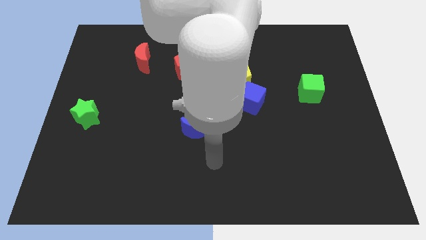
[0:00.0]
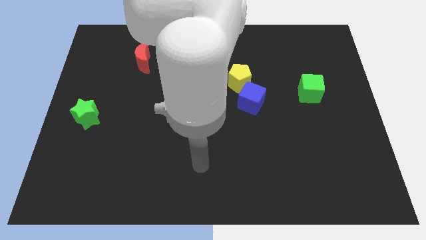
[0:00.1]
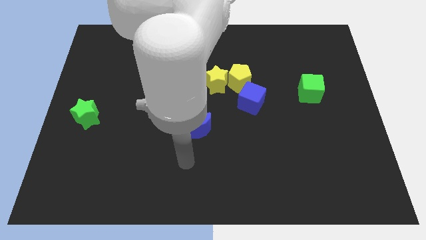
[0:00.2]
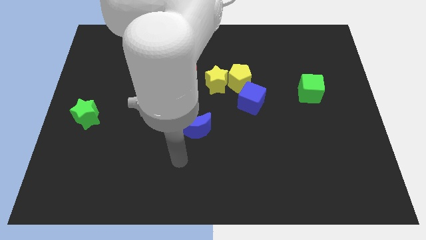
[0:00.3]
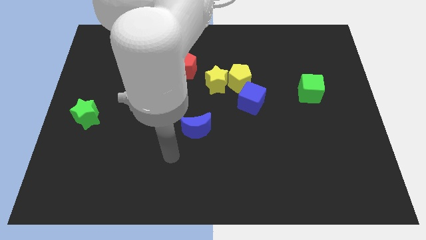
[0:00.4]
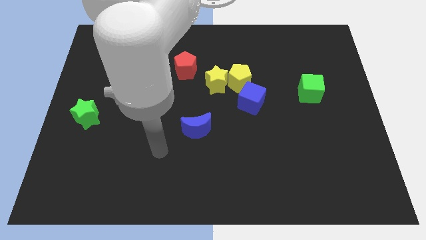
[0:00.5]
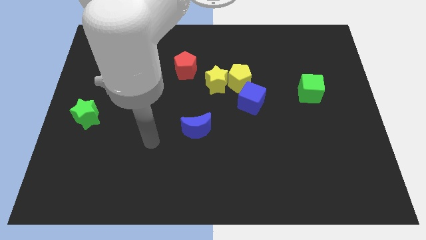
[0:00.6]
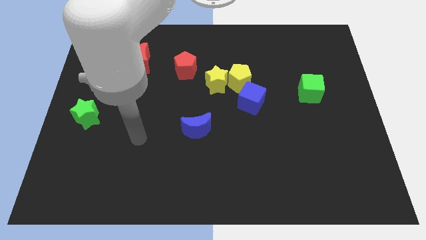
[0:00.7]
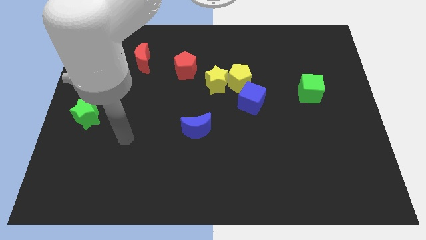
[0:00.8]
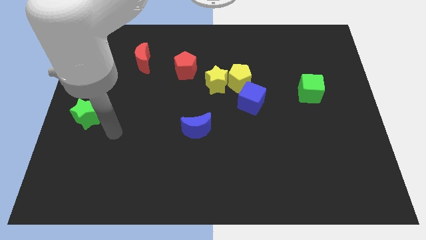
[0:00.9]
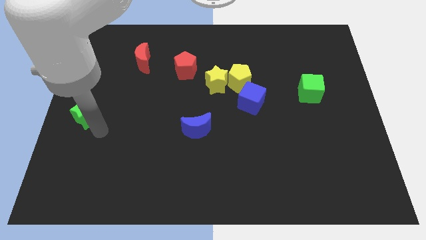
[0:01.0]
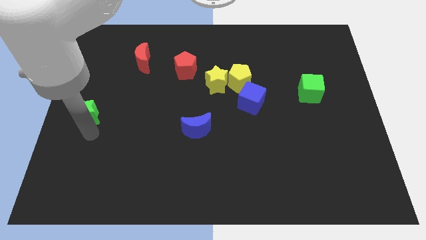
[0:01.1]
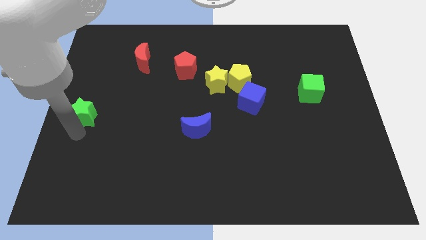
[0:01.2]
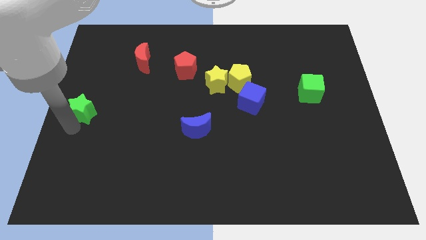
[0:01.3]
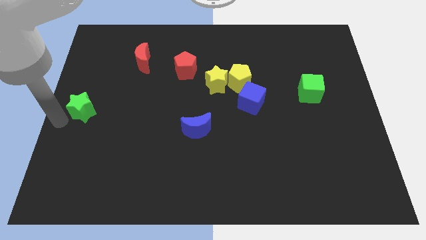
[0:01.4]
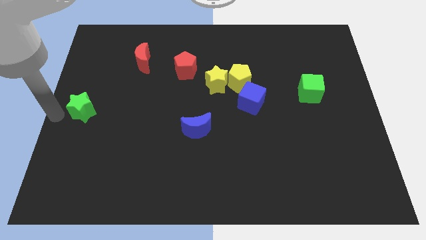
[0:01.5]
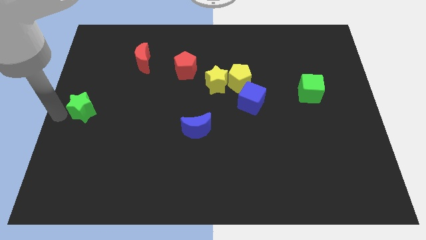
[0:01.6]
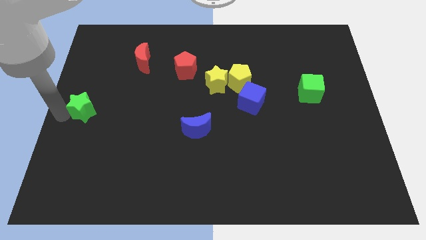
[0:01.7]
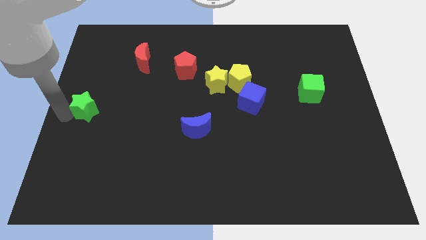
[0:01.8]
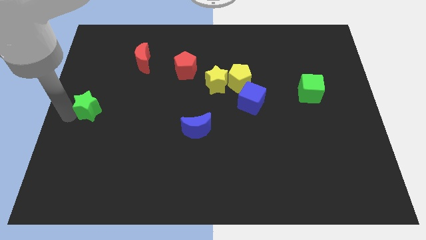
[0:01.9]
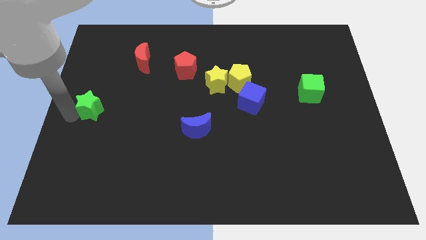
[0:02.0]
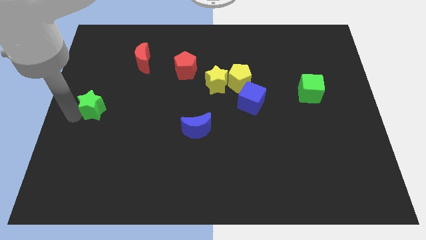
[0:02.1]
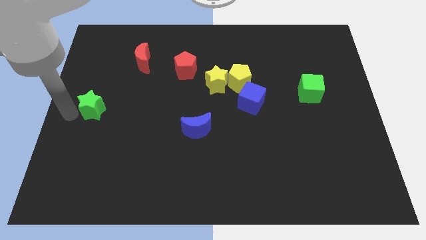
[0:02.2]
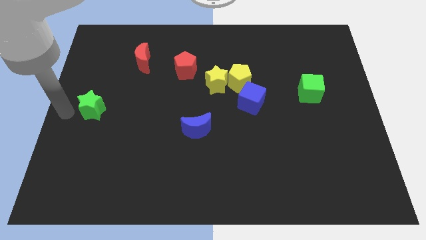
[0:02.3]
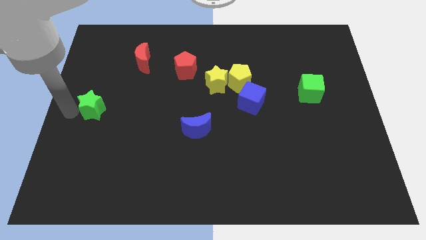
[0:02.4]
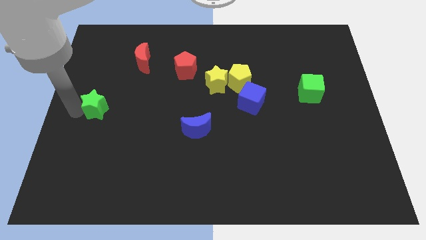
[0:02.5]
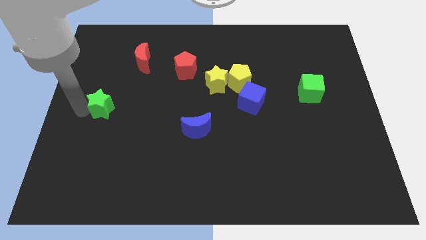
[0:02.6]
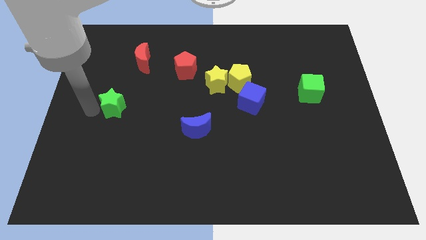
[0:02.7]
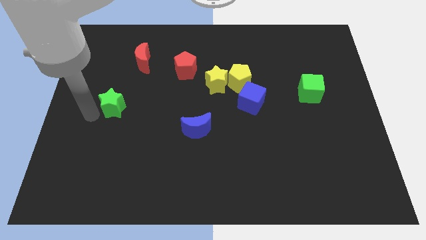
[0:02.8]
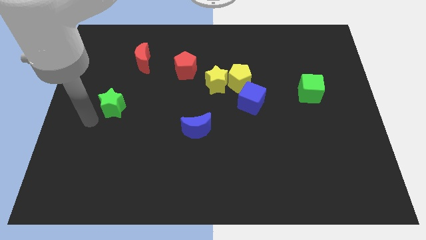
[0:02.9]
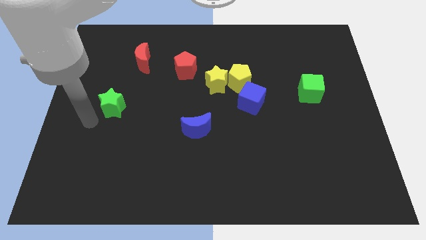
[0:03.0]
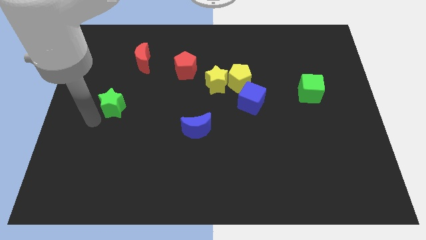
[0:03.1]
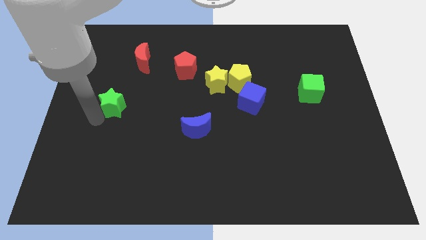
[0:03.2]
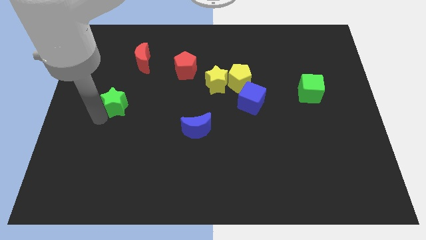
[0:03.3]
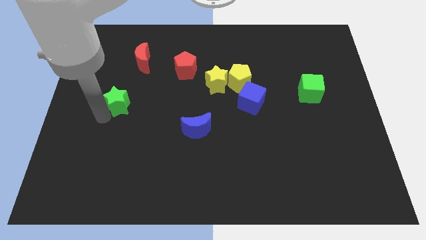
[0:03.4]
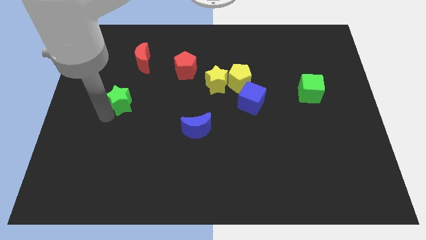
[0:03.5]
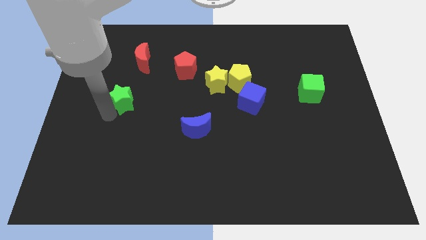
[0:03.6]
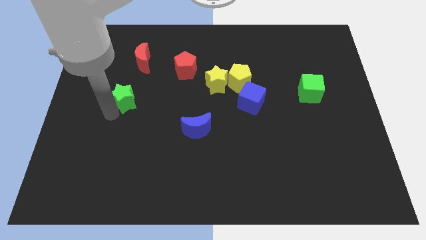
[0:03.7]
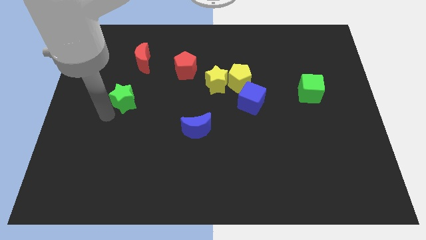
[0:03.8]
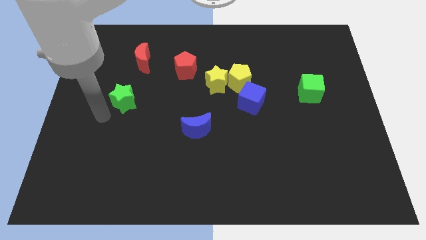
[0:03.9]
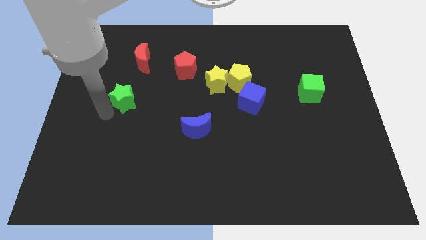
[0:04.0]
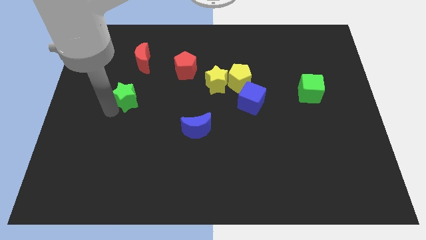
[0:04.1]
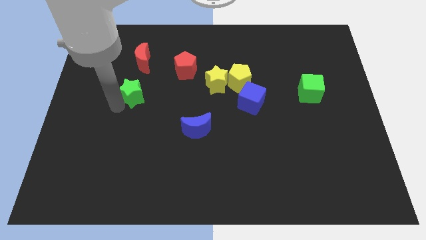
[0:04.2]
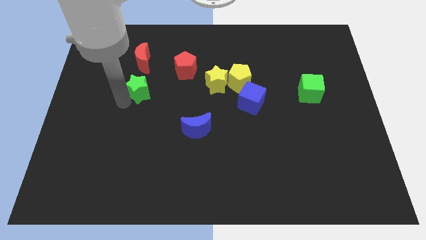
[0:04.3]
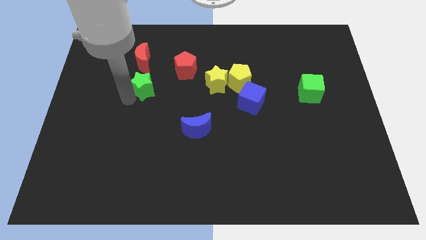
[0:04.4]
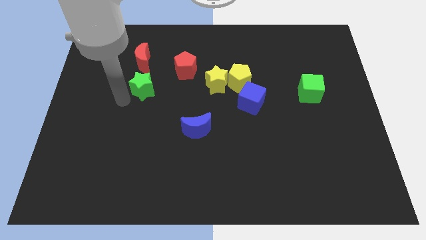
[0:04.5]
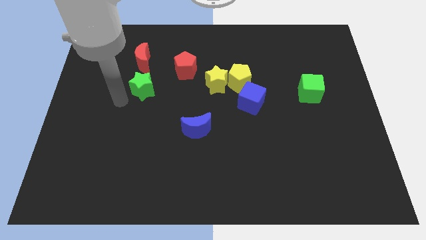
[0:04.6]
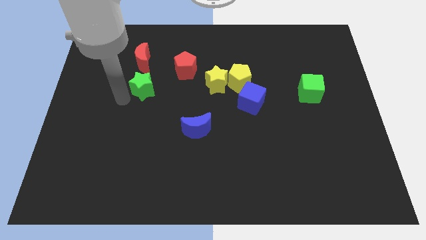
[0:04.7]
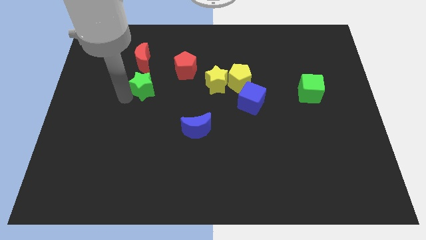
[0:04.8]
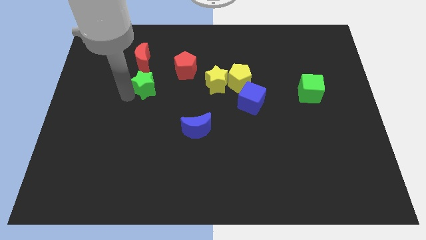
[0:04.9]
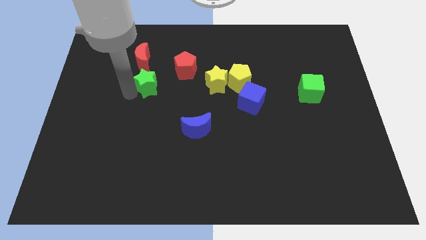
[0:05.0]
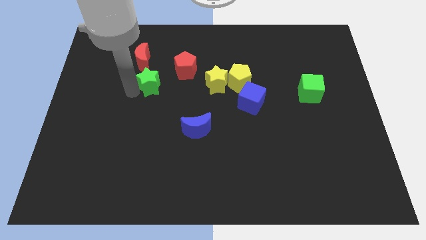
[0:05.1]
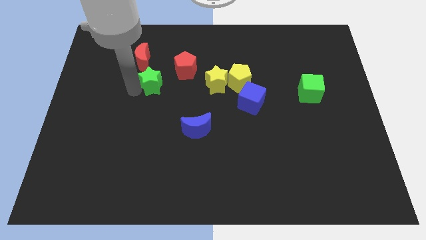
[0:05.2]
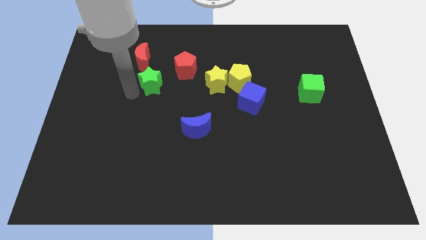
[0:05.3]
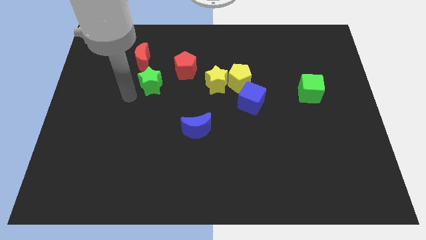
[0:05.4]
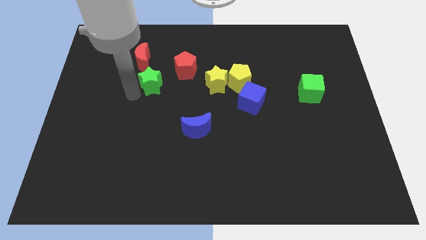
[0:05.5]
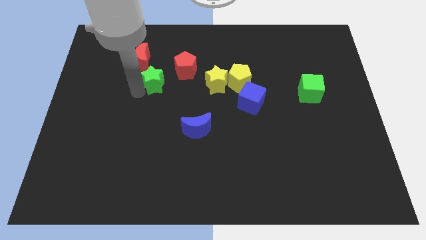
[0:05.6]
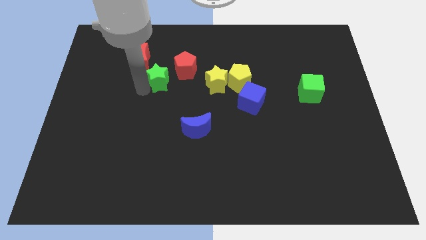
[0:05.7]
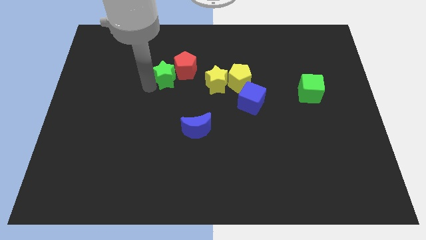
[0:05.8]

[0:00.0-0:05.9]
slide the green star close to the red pentagon
